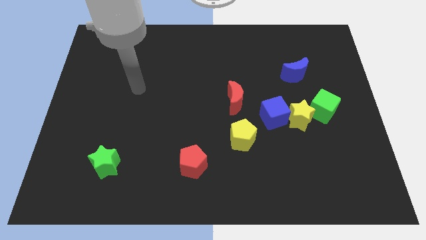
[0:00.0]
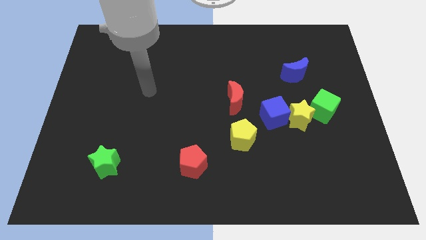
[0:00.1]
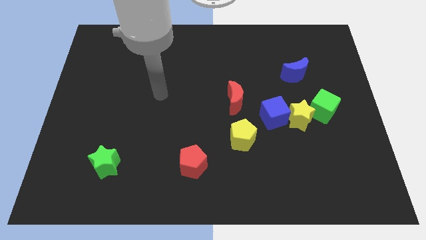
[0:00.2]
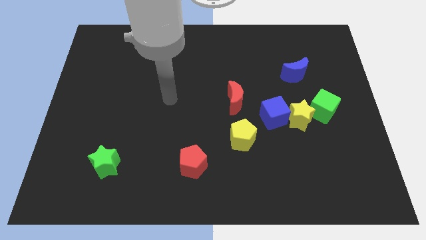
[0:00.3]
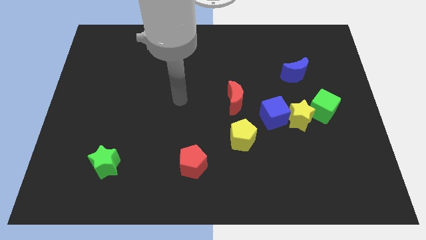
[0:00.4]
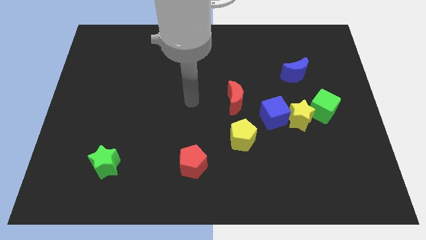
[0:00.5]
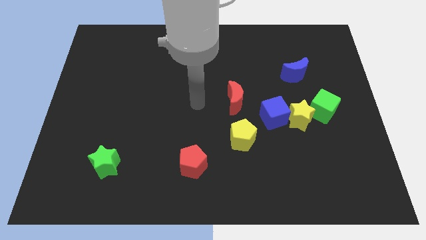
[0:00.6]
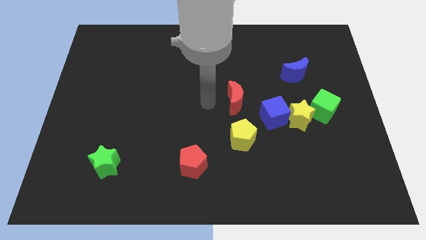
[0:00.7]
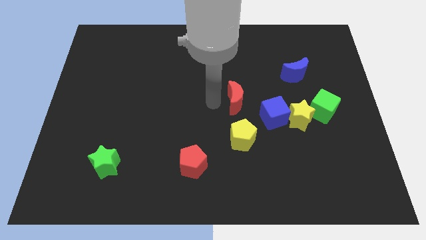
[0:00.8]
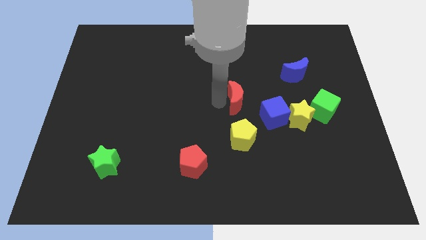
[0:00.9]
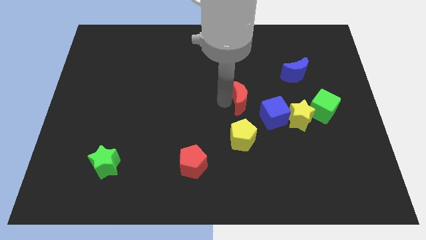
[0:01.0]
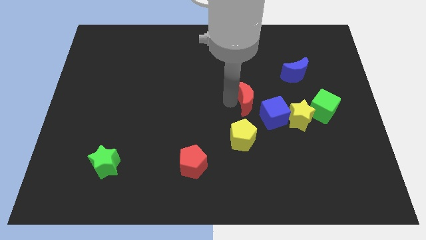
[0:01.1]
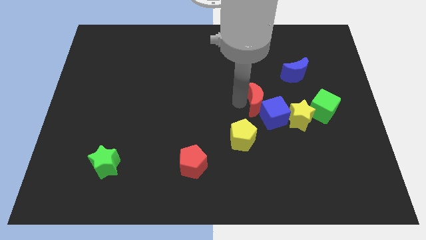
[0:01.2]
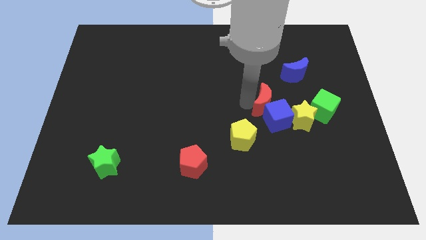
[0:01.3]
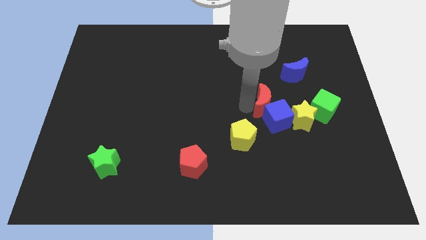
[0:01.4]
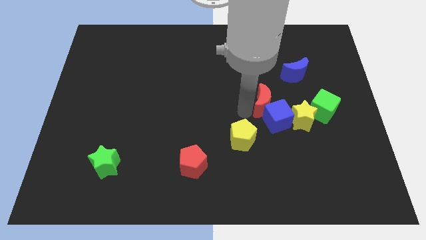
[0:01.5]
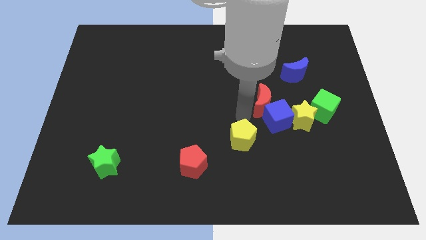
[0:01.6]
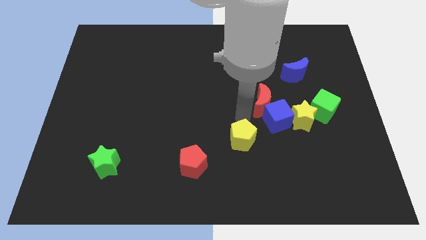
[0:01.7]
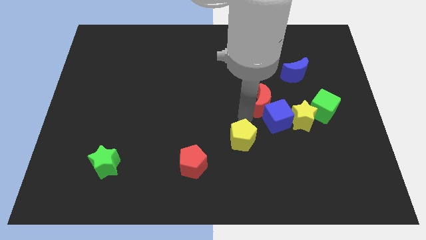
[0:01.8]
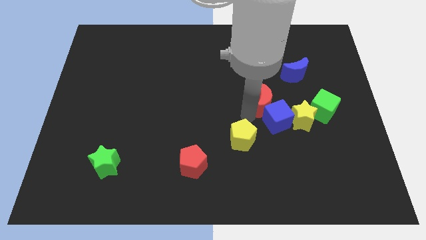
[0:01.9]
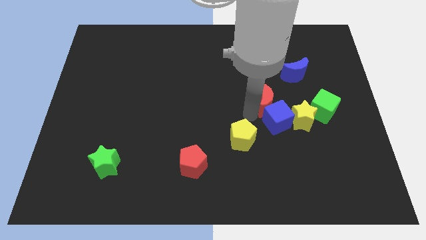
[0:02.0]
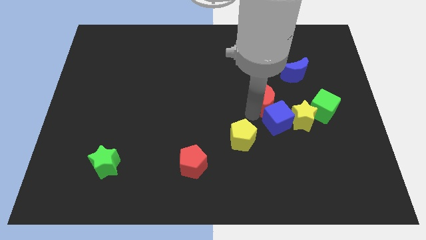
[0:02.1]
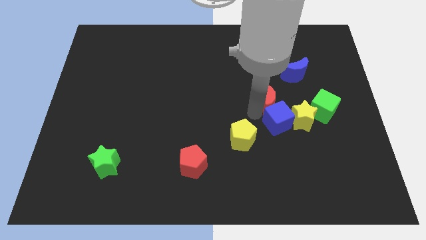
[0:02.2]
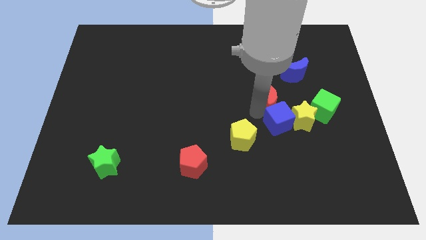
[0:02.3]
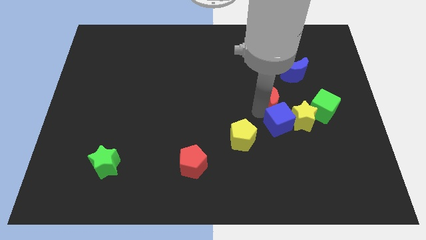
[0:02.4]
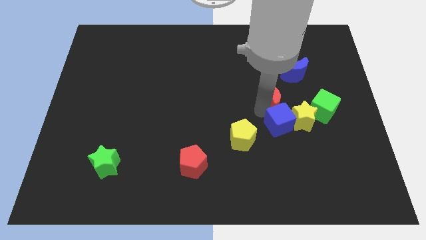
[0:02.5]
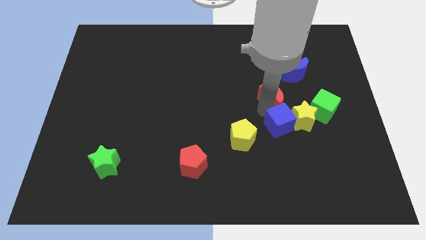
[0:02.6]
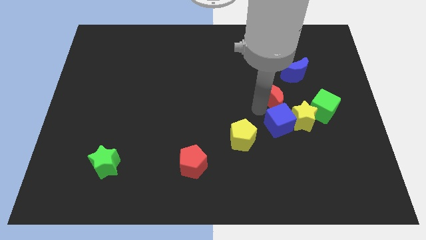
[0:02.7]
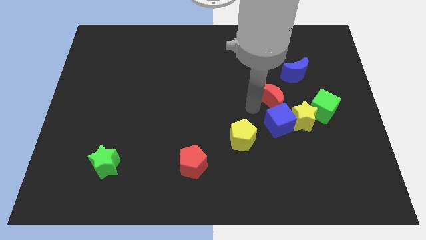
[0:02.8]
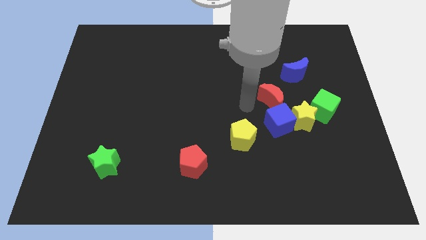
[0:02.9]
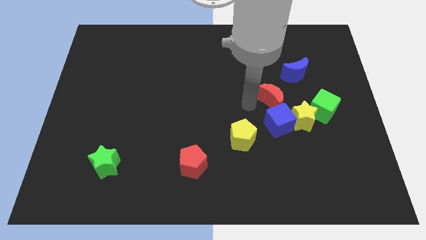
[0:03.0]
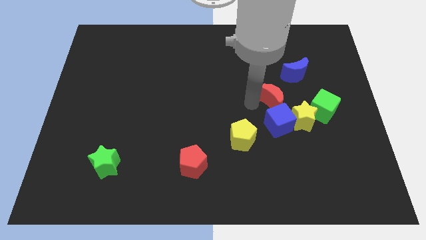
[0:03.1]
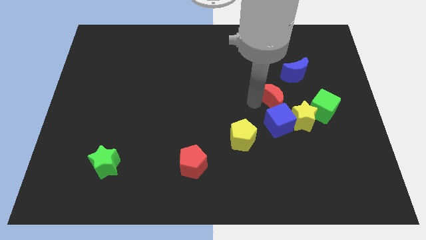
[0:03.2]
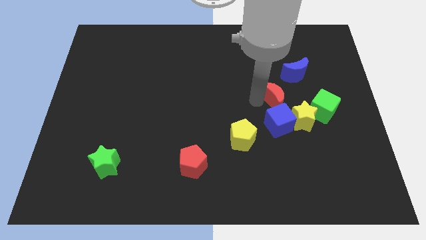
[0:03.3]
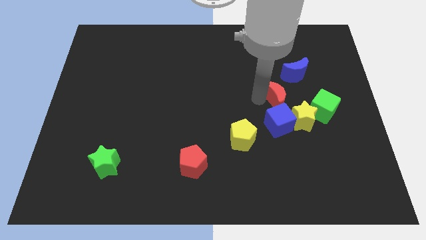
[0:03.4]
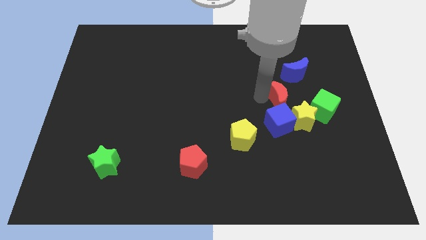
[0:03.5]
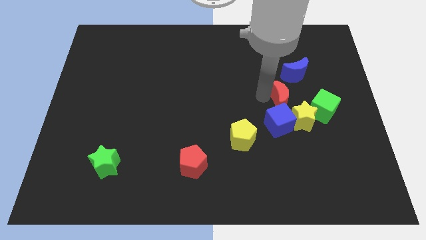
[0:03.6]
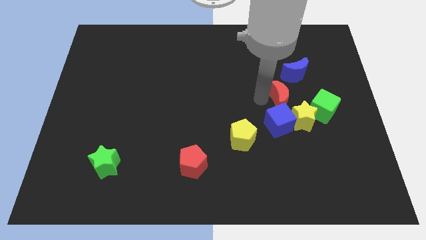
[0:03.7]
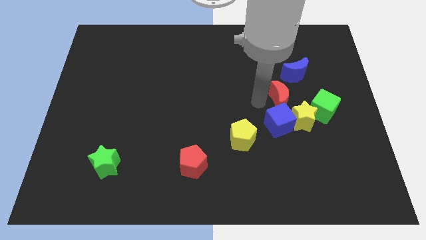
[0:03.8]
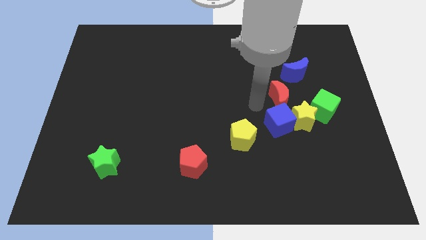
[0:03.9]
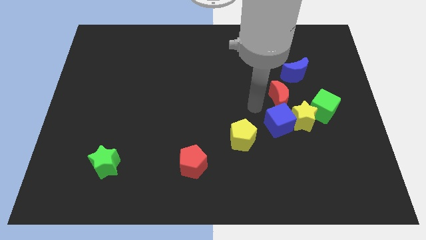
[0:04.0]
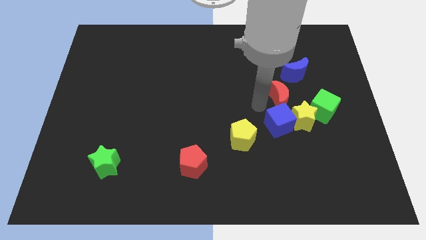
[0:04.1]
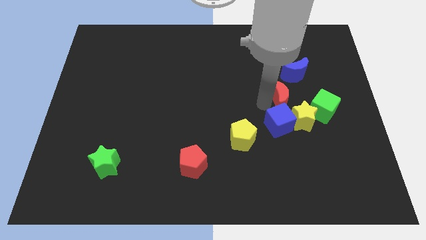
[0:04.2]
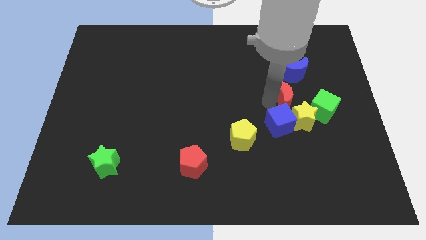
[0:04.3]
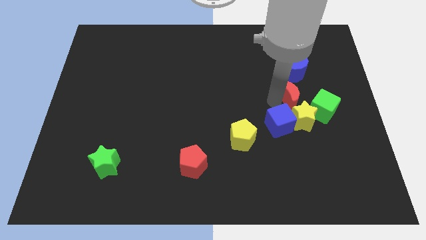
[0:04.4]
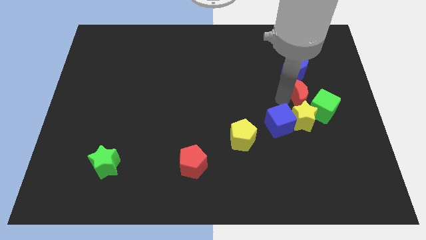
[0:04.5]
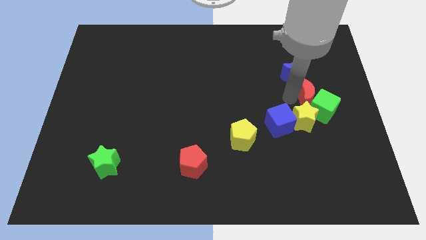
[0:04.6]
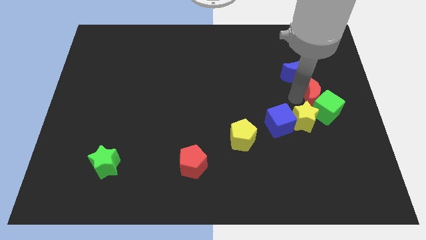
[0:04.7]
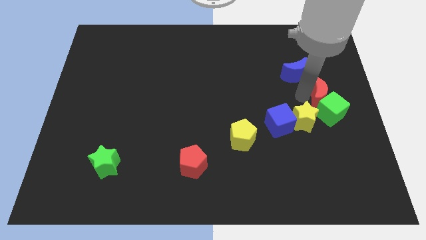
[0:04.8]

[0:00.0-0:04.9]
move the red moon to the right side

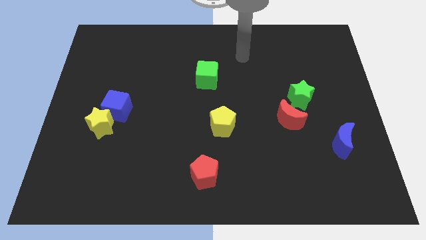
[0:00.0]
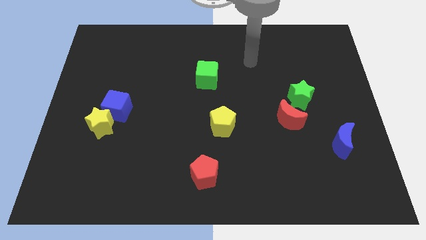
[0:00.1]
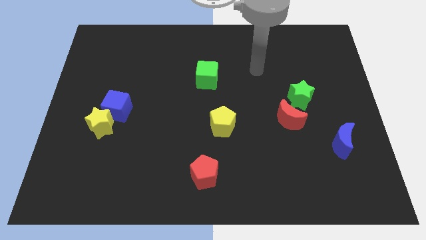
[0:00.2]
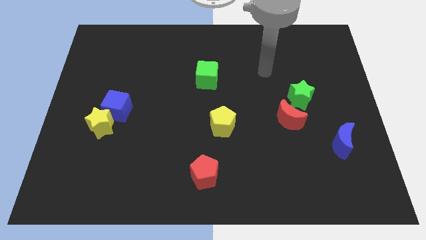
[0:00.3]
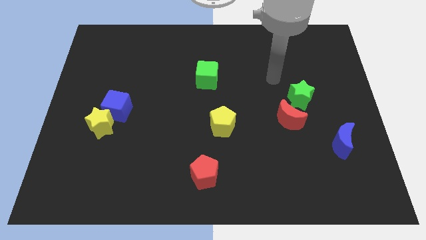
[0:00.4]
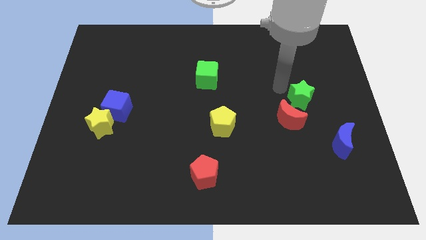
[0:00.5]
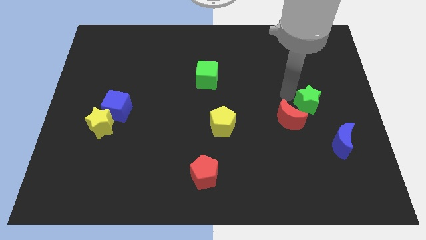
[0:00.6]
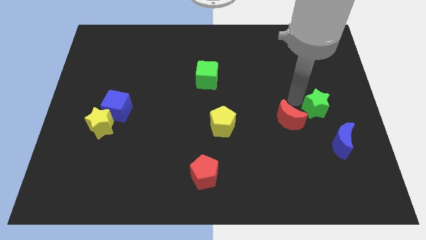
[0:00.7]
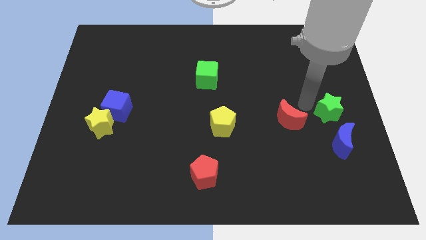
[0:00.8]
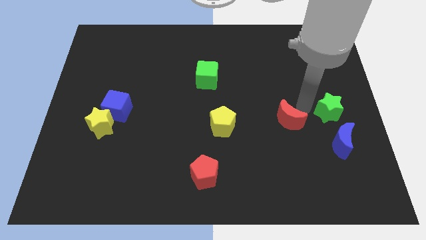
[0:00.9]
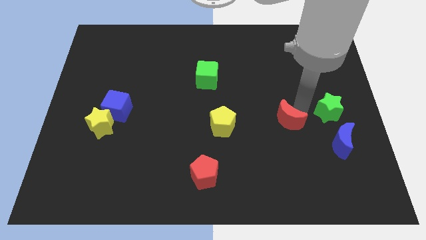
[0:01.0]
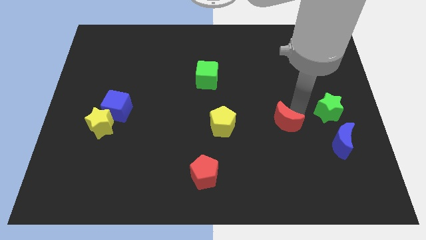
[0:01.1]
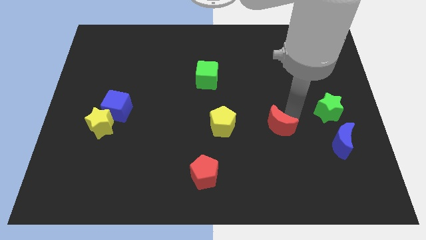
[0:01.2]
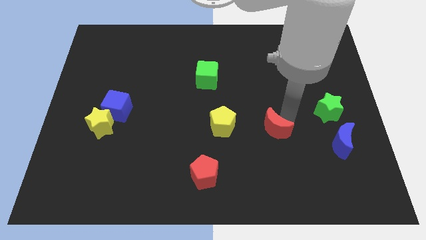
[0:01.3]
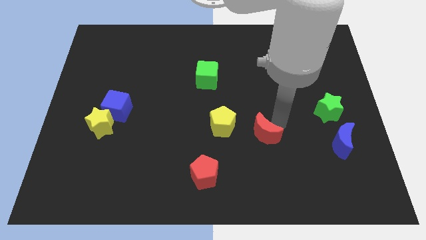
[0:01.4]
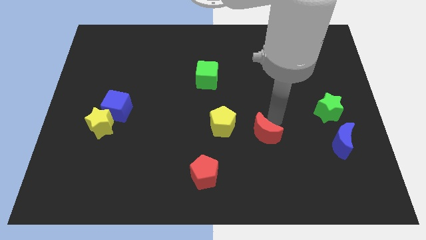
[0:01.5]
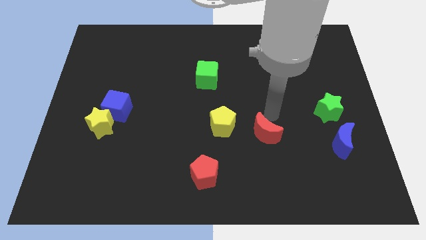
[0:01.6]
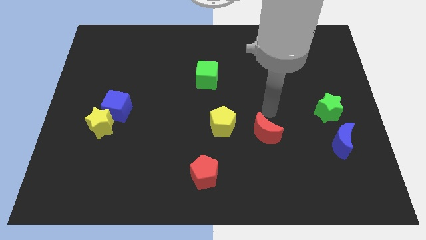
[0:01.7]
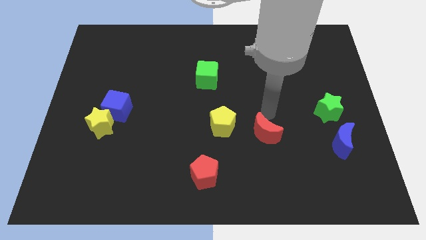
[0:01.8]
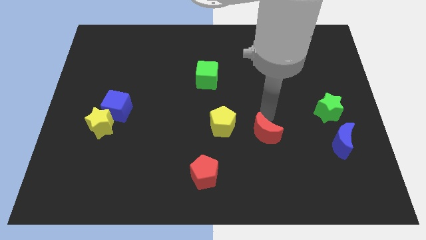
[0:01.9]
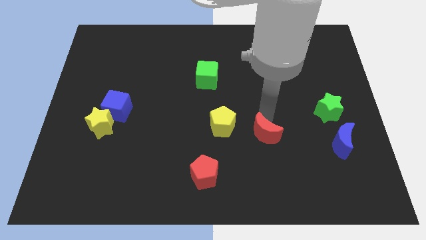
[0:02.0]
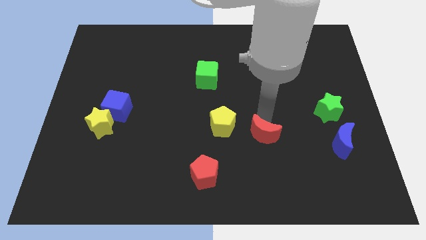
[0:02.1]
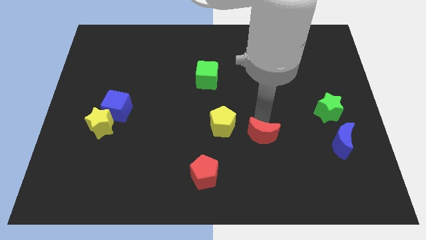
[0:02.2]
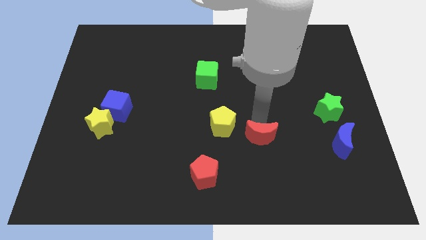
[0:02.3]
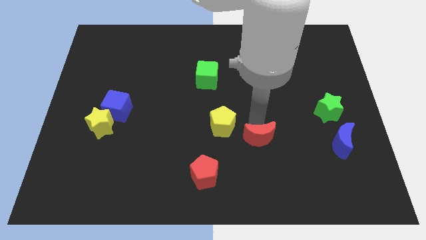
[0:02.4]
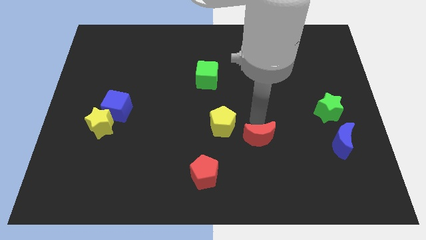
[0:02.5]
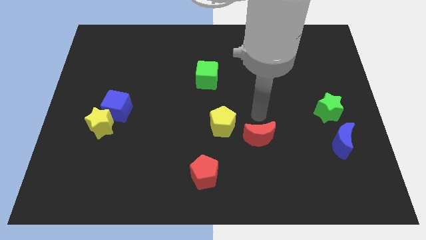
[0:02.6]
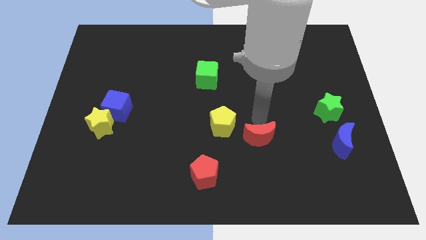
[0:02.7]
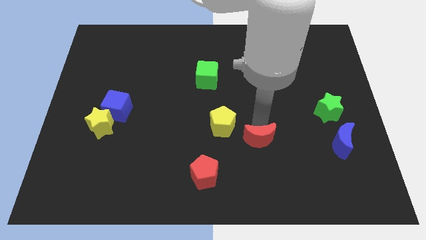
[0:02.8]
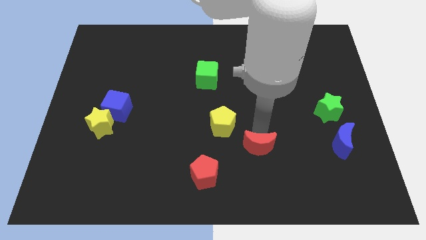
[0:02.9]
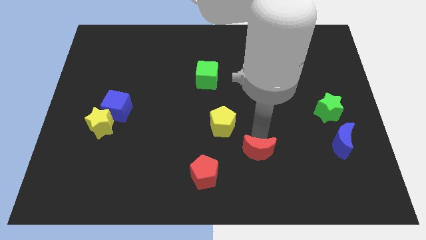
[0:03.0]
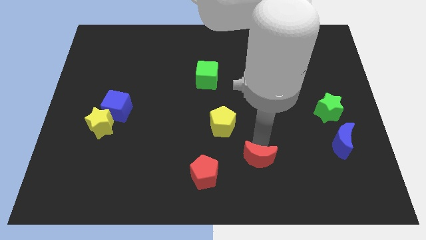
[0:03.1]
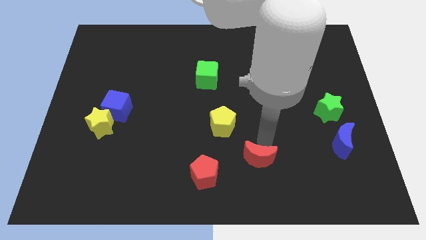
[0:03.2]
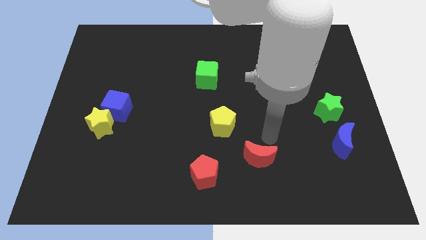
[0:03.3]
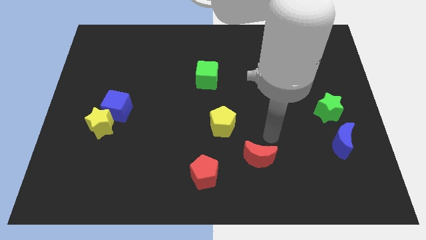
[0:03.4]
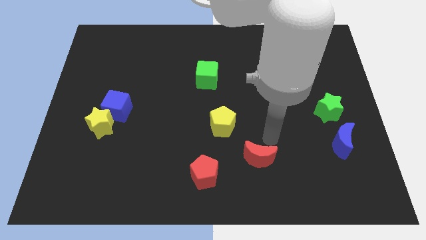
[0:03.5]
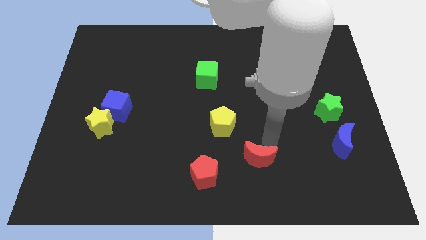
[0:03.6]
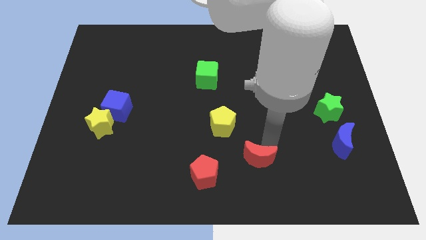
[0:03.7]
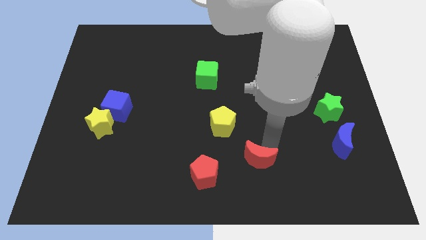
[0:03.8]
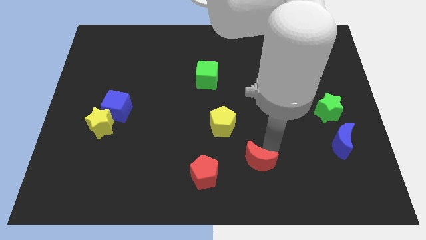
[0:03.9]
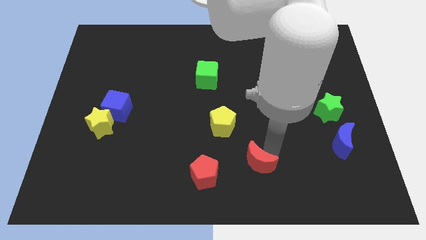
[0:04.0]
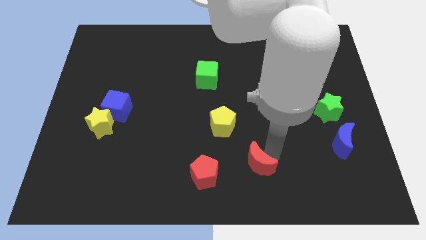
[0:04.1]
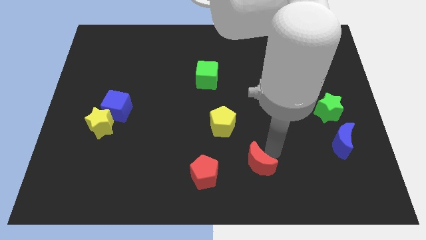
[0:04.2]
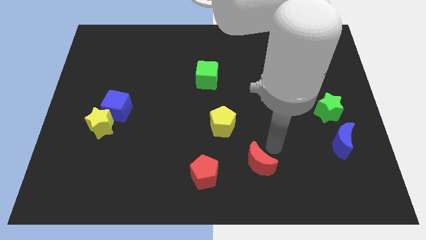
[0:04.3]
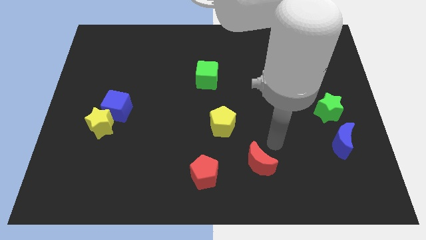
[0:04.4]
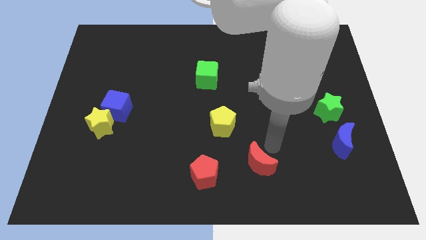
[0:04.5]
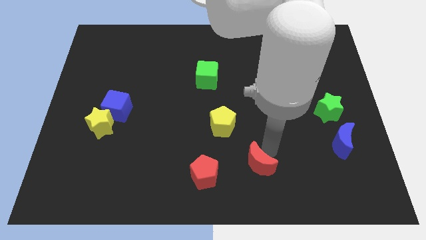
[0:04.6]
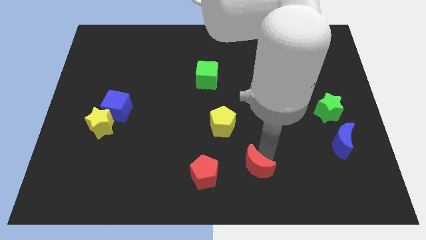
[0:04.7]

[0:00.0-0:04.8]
put the red moon to the bottom side
